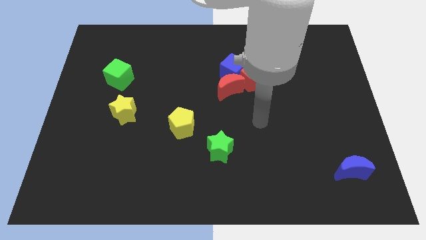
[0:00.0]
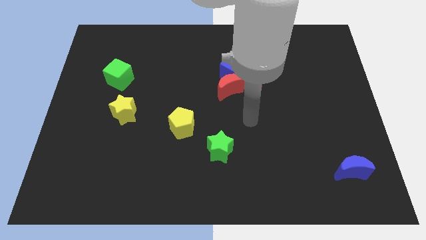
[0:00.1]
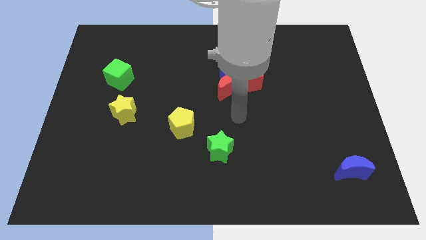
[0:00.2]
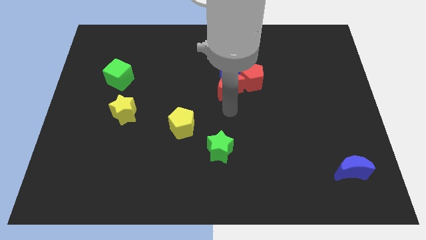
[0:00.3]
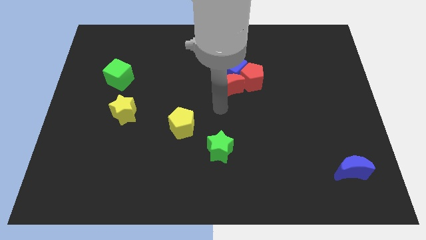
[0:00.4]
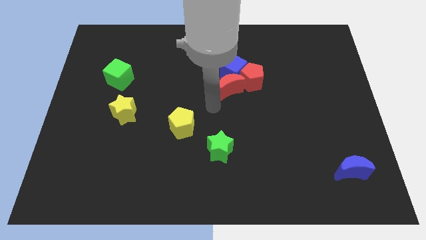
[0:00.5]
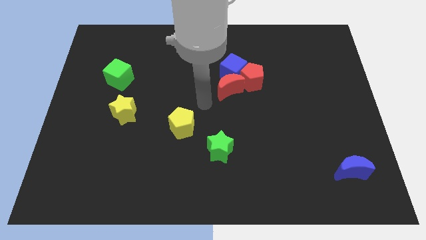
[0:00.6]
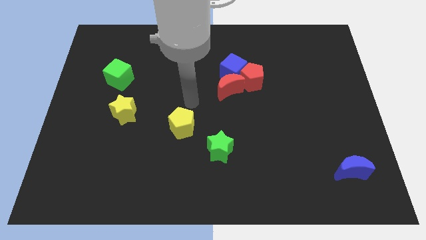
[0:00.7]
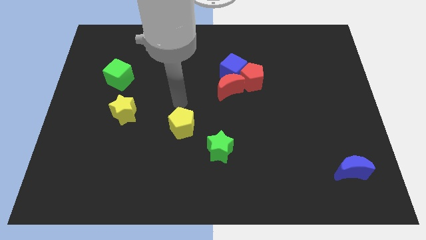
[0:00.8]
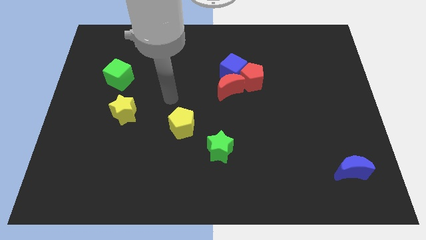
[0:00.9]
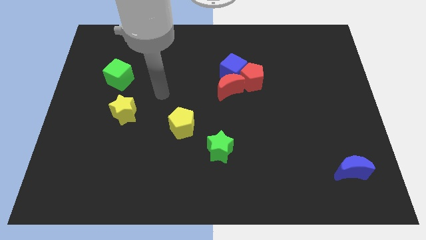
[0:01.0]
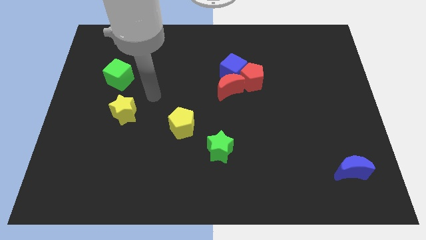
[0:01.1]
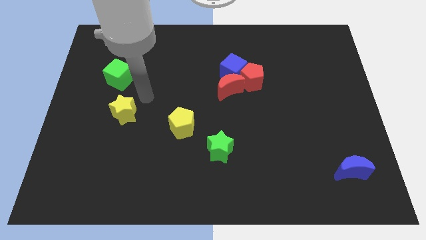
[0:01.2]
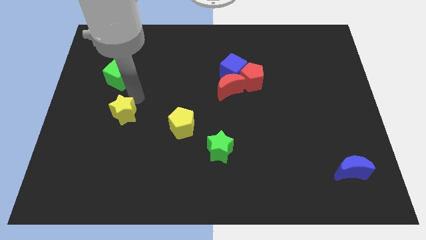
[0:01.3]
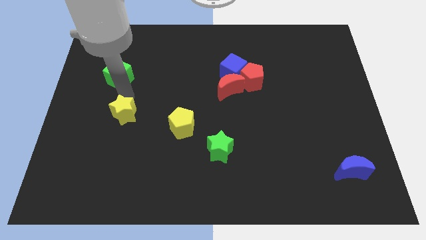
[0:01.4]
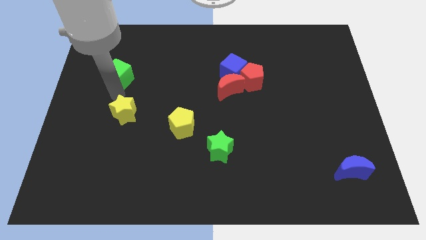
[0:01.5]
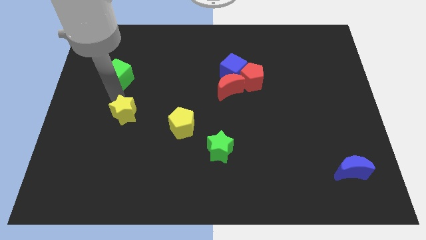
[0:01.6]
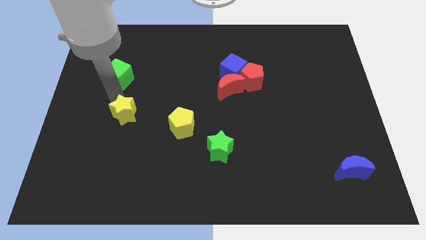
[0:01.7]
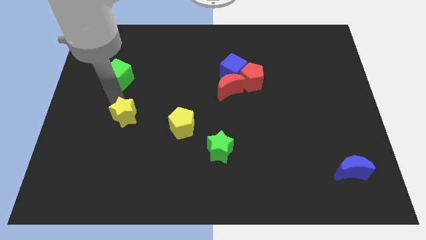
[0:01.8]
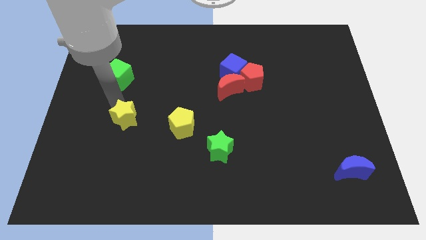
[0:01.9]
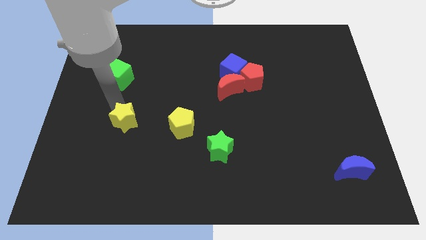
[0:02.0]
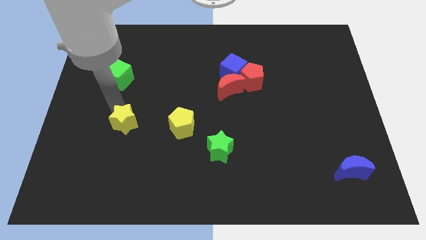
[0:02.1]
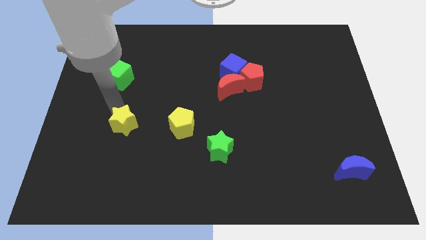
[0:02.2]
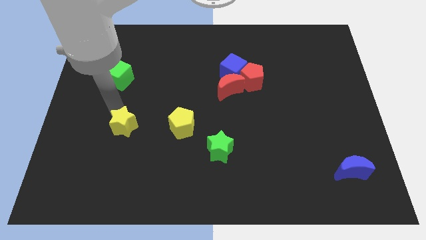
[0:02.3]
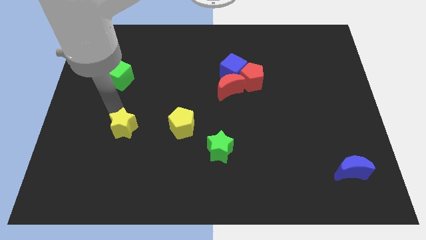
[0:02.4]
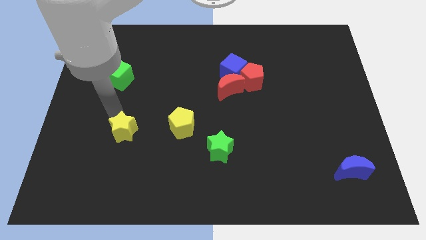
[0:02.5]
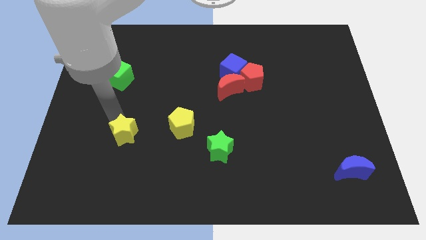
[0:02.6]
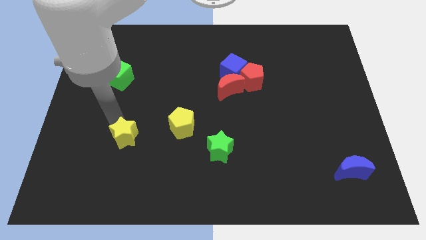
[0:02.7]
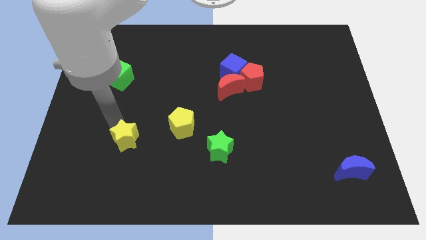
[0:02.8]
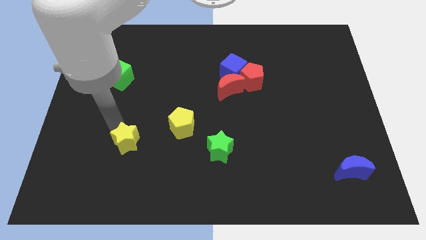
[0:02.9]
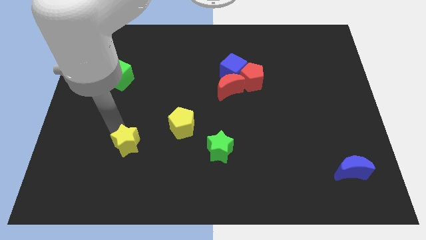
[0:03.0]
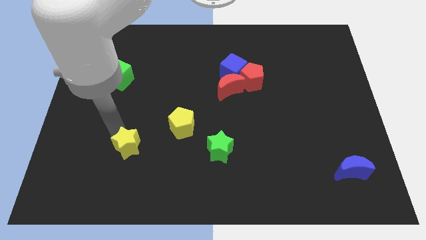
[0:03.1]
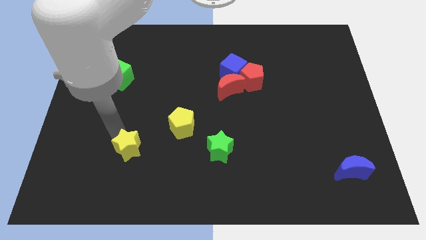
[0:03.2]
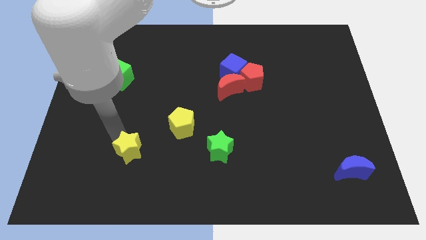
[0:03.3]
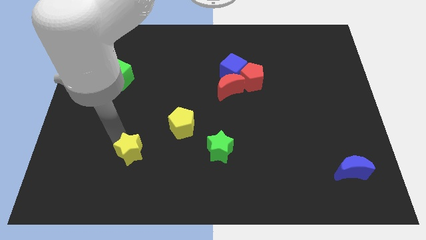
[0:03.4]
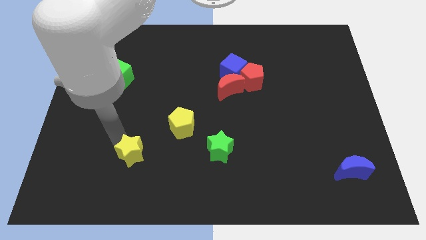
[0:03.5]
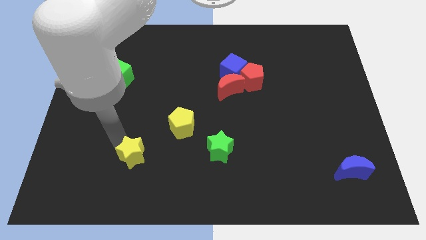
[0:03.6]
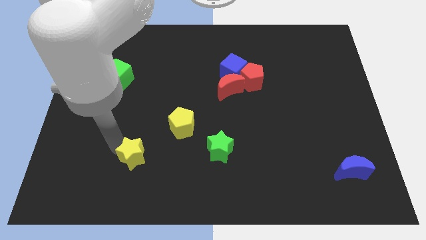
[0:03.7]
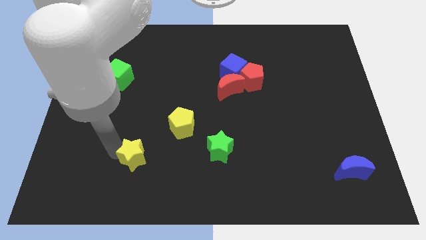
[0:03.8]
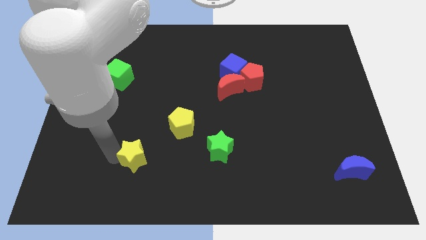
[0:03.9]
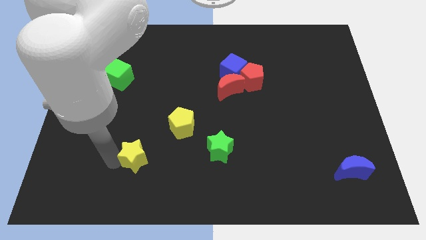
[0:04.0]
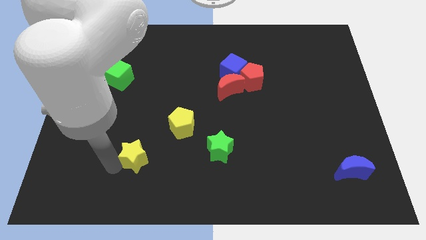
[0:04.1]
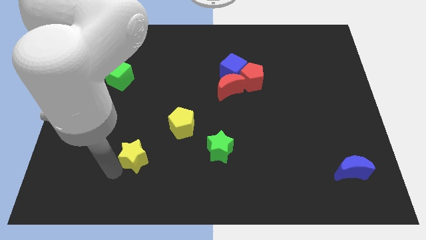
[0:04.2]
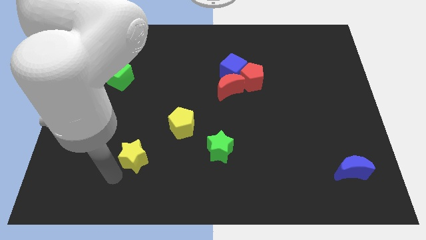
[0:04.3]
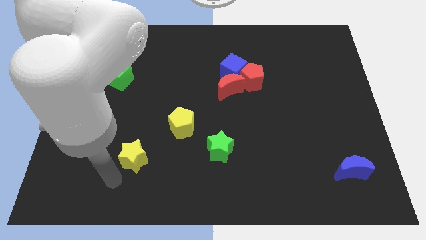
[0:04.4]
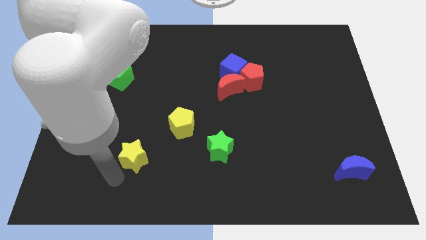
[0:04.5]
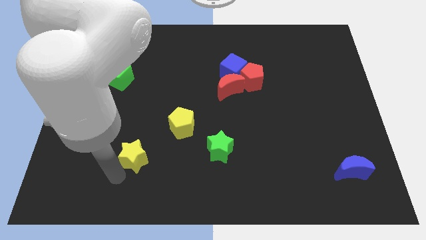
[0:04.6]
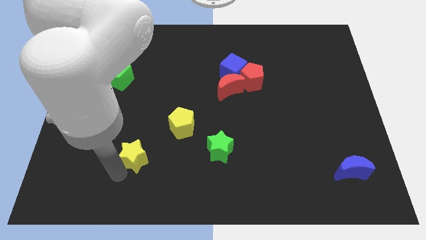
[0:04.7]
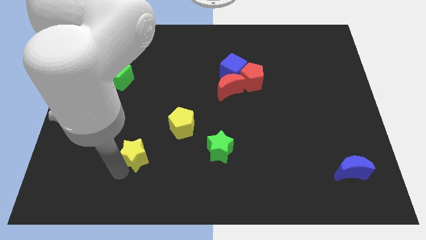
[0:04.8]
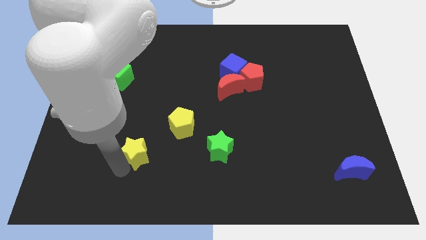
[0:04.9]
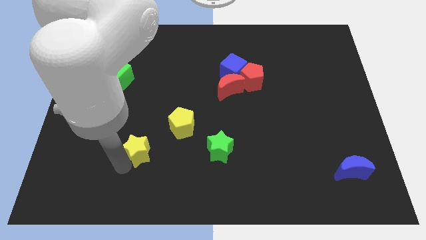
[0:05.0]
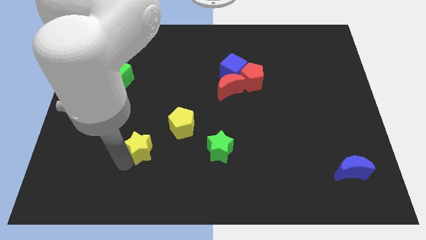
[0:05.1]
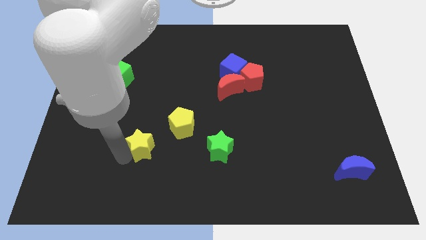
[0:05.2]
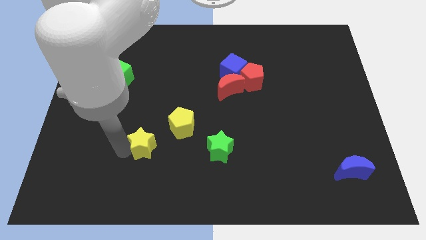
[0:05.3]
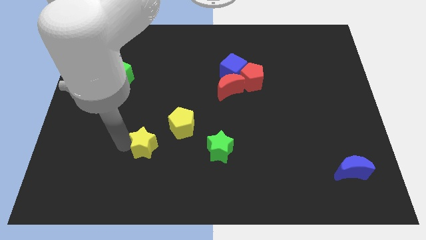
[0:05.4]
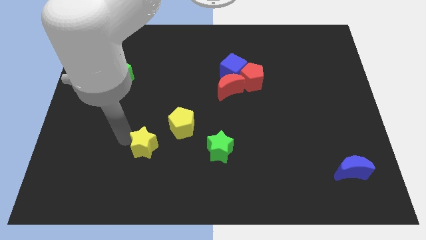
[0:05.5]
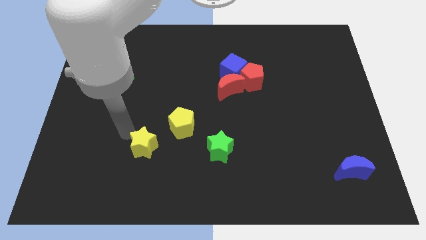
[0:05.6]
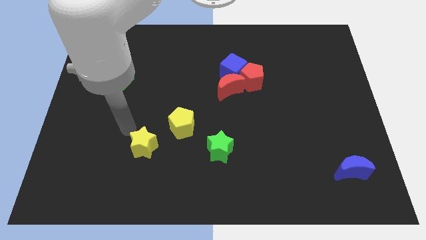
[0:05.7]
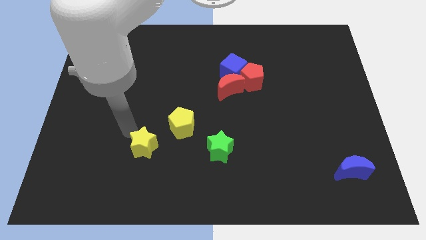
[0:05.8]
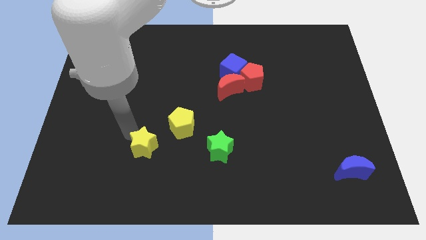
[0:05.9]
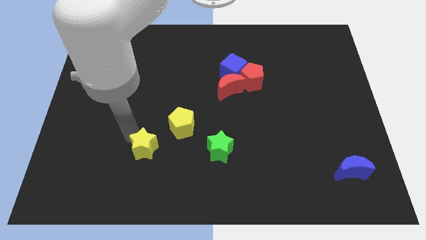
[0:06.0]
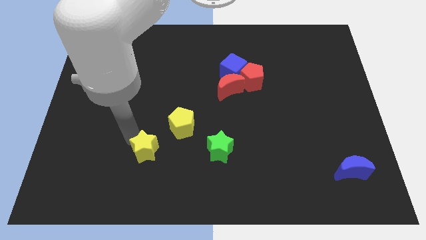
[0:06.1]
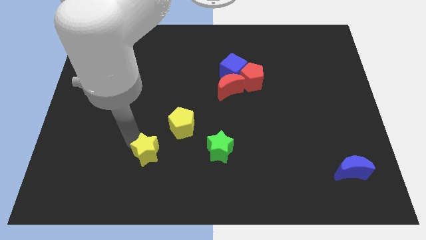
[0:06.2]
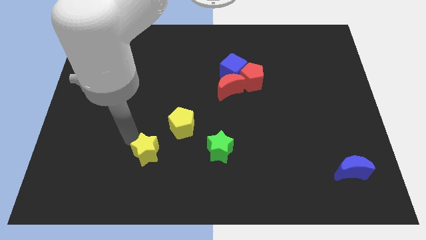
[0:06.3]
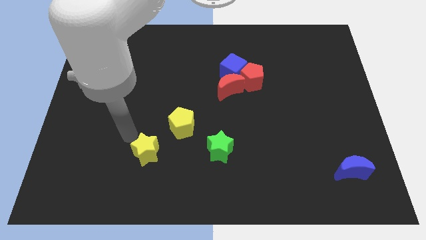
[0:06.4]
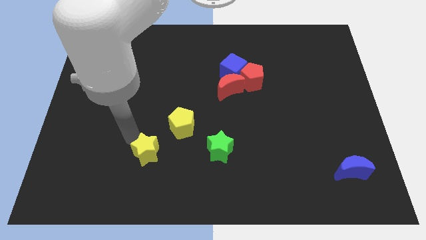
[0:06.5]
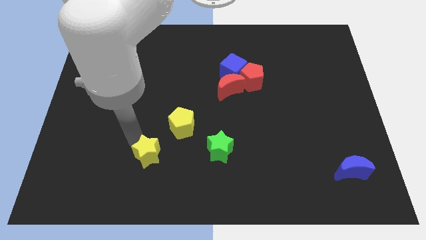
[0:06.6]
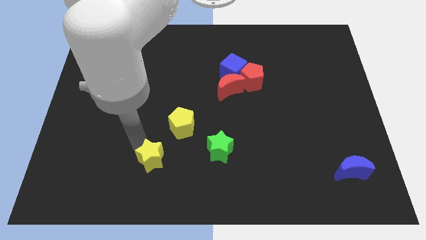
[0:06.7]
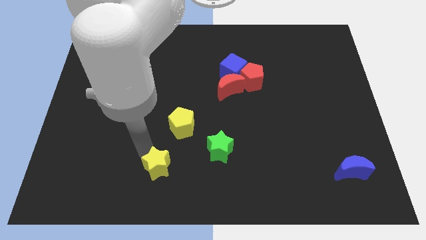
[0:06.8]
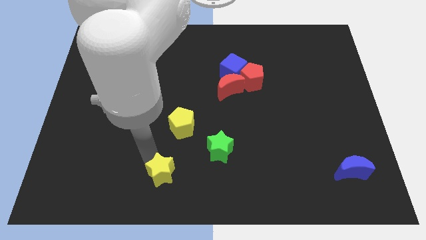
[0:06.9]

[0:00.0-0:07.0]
slide the yellow star to the bottom
